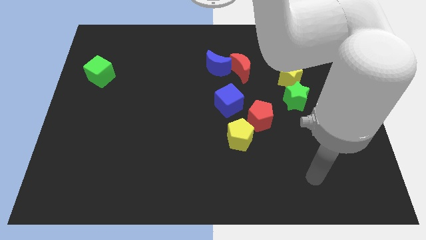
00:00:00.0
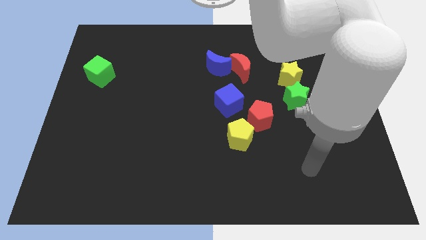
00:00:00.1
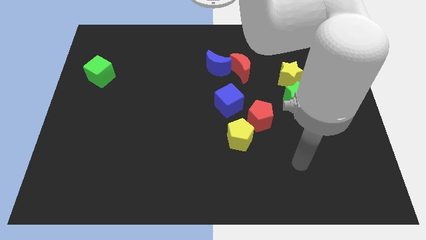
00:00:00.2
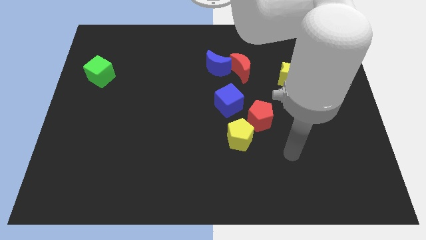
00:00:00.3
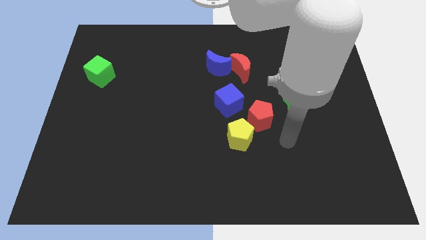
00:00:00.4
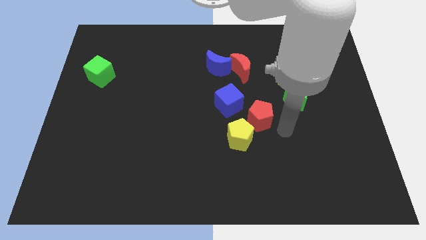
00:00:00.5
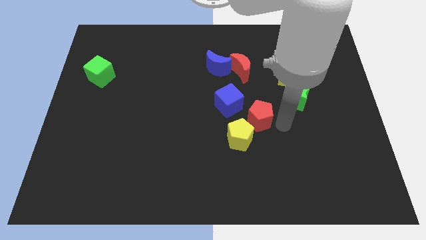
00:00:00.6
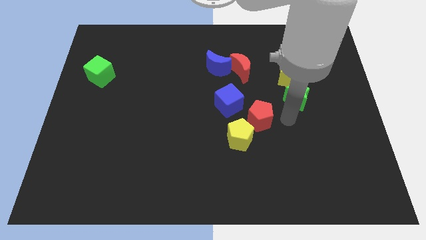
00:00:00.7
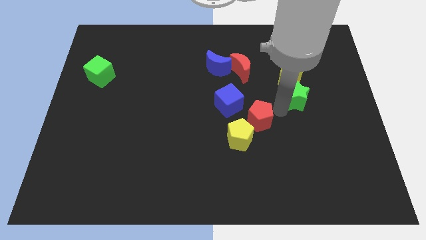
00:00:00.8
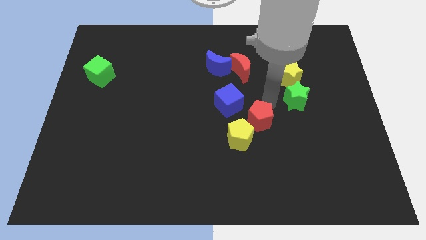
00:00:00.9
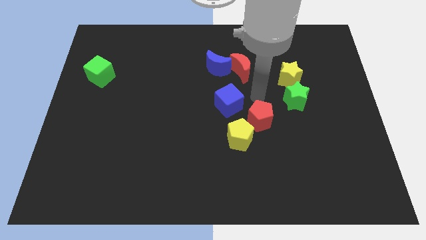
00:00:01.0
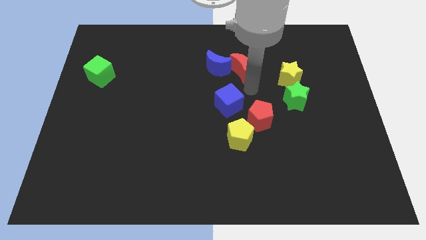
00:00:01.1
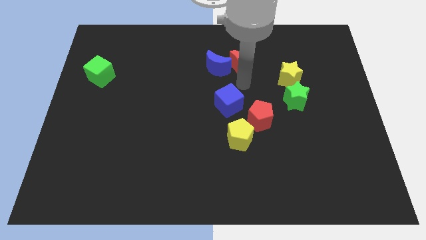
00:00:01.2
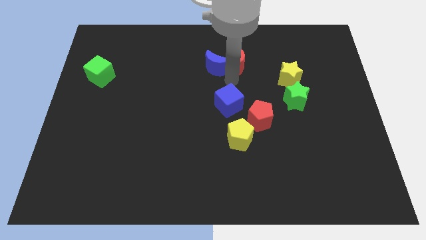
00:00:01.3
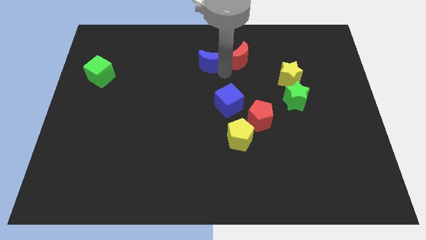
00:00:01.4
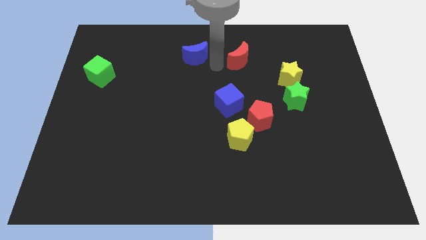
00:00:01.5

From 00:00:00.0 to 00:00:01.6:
pull the red moon apart from the blue moon

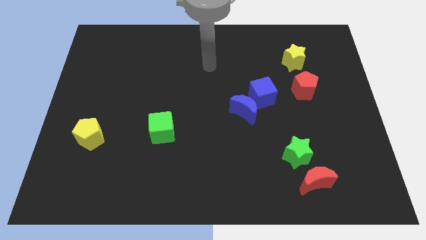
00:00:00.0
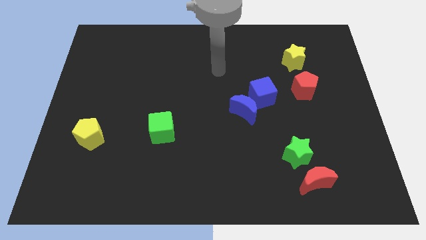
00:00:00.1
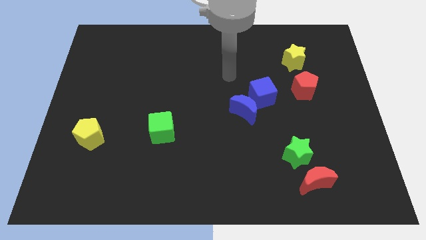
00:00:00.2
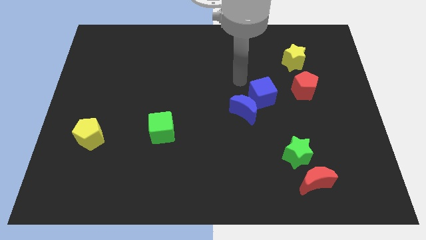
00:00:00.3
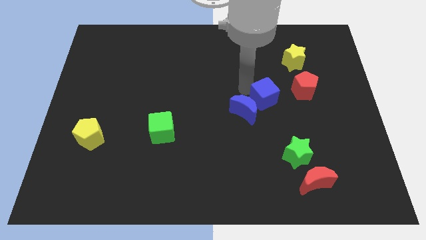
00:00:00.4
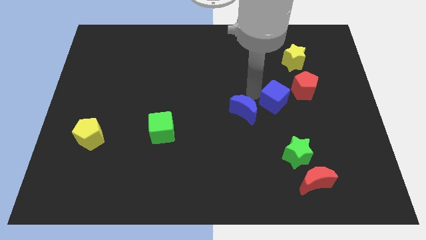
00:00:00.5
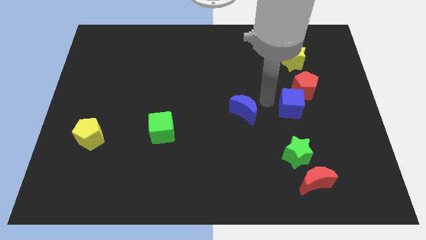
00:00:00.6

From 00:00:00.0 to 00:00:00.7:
move the blue moon away from the blue cube

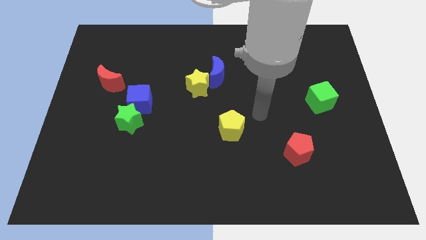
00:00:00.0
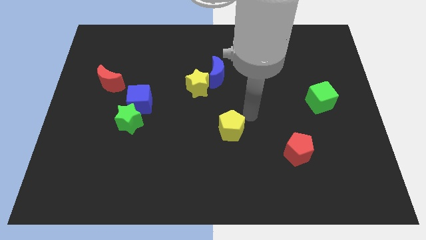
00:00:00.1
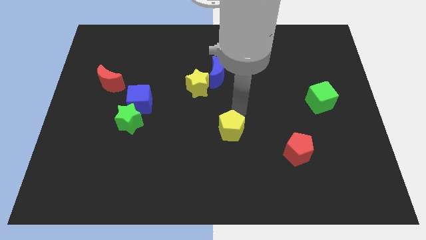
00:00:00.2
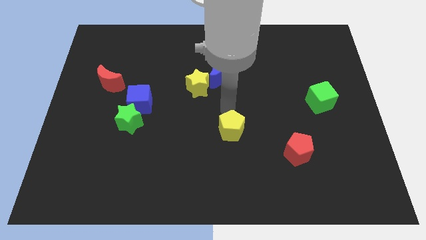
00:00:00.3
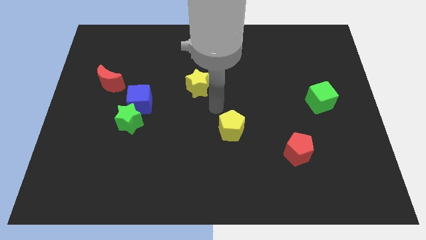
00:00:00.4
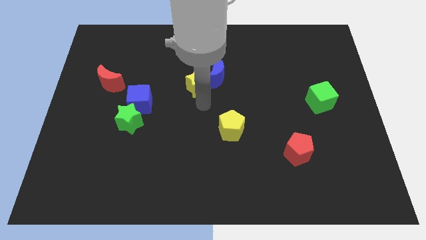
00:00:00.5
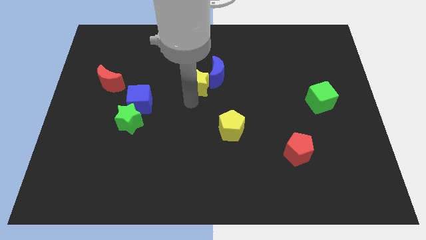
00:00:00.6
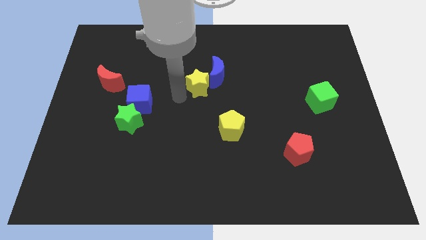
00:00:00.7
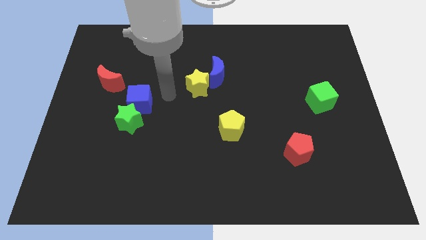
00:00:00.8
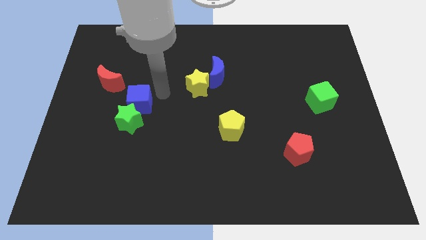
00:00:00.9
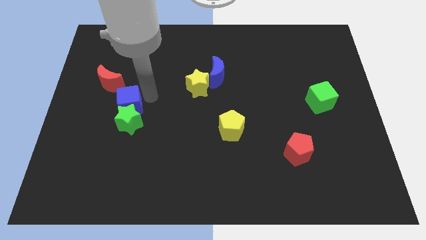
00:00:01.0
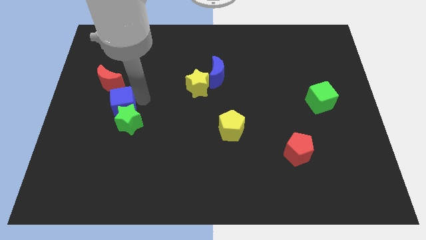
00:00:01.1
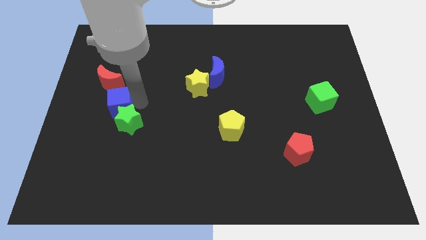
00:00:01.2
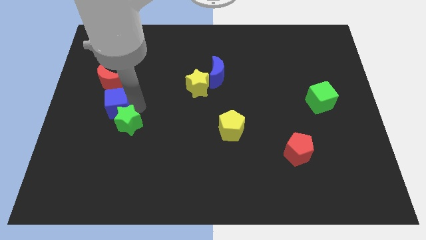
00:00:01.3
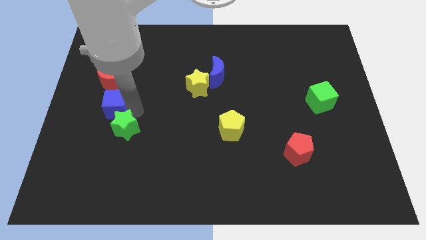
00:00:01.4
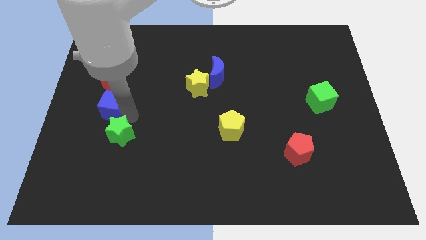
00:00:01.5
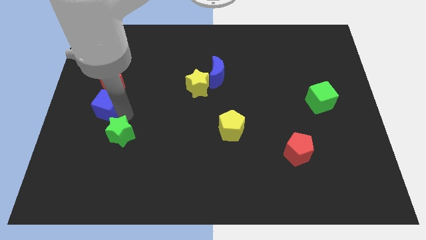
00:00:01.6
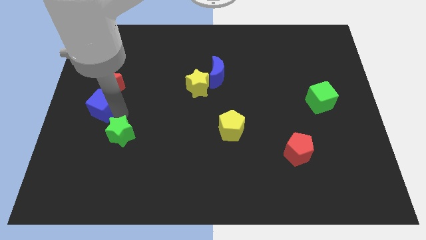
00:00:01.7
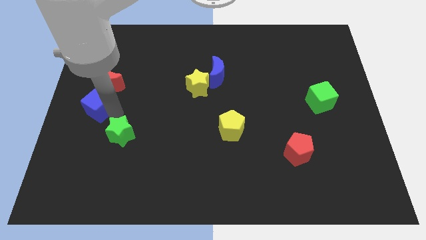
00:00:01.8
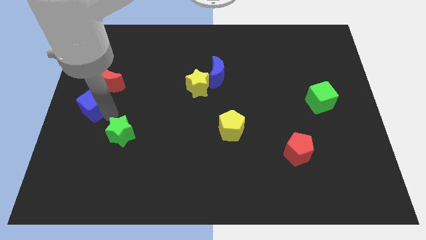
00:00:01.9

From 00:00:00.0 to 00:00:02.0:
separate the green star from the blue cube

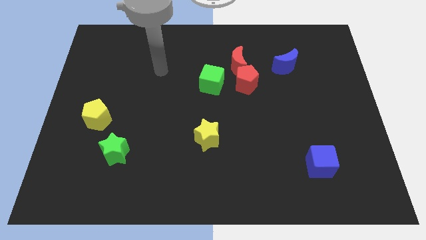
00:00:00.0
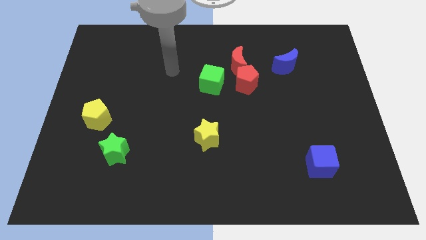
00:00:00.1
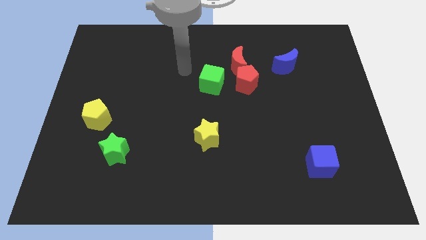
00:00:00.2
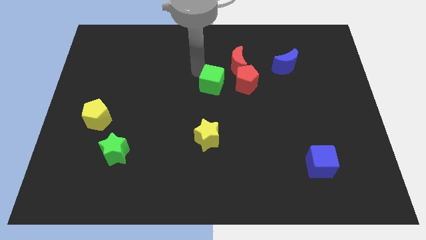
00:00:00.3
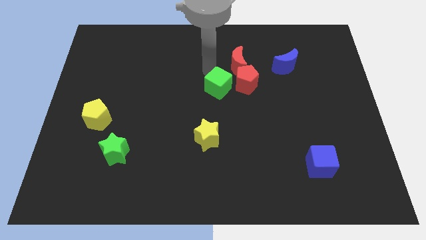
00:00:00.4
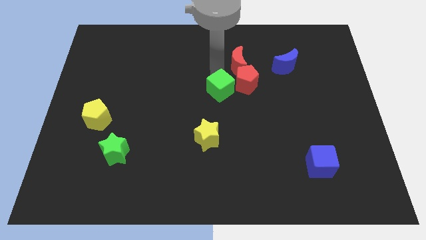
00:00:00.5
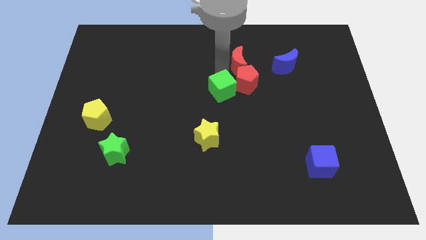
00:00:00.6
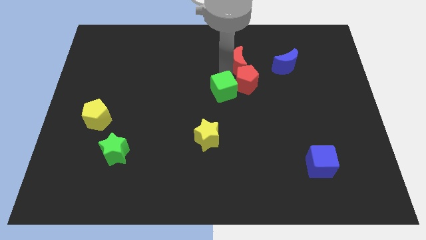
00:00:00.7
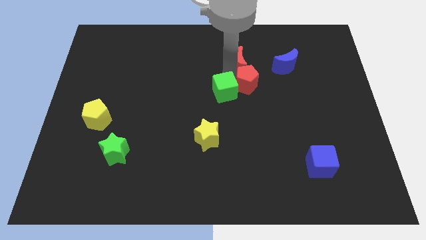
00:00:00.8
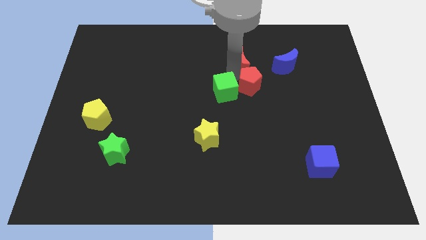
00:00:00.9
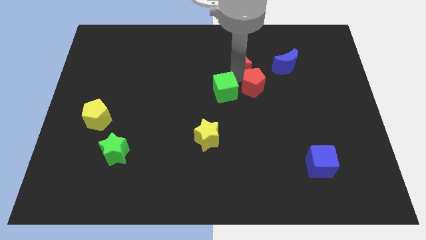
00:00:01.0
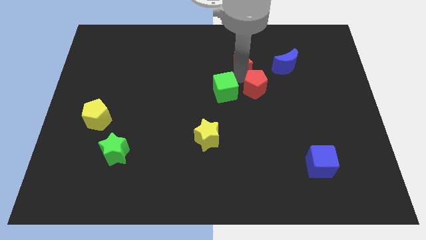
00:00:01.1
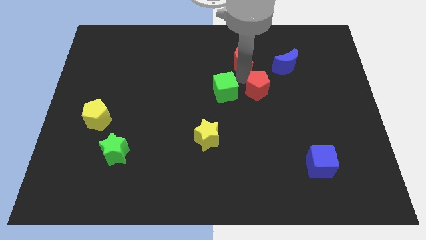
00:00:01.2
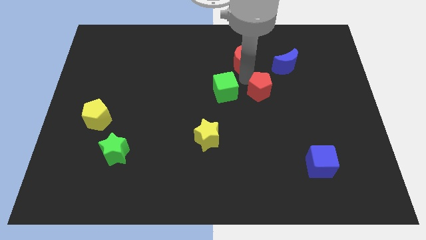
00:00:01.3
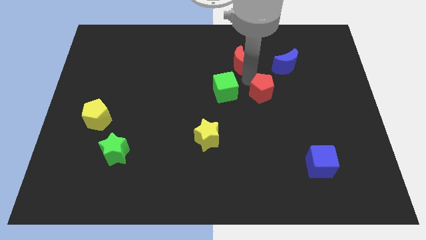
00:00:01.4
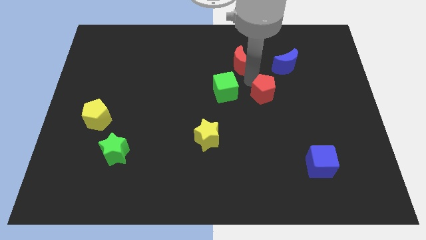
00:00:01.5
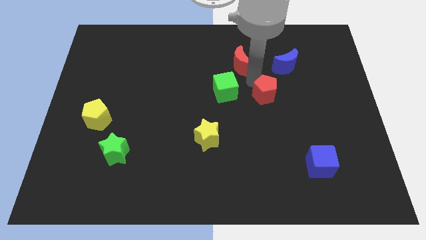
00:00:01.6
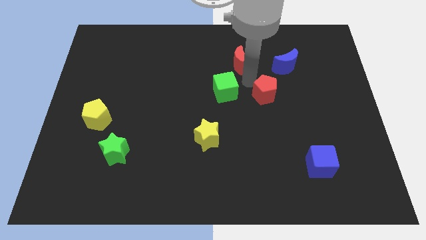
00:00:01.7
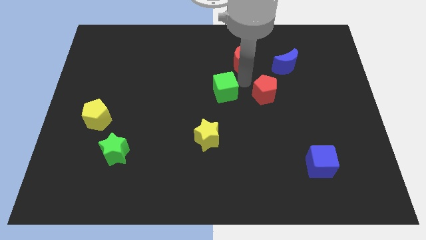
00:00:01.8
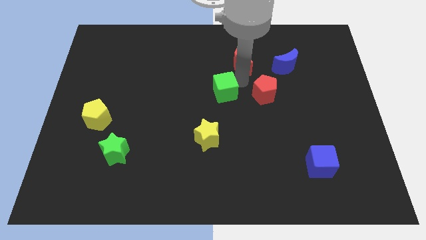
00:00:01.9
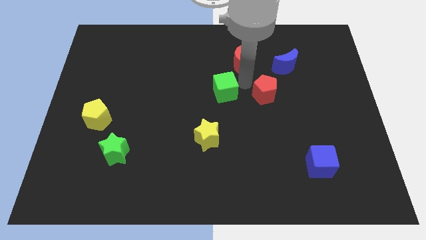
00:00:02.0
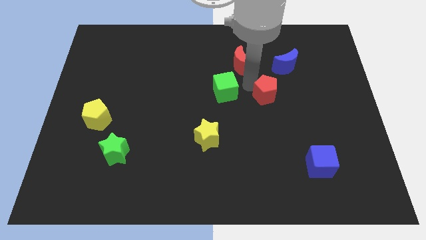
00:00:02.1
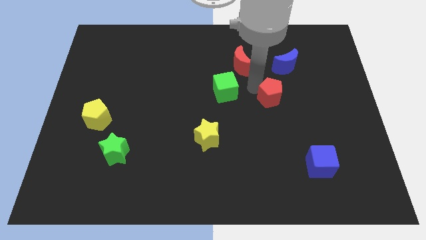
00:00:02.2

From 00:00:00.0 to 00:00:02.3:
move the red pentagon away from the red moon and green cube

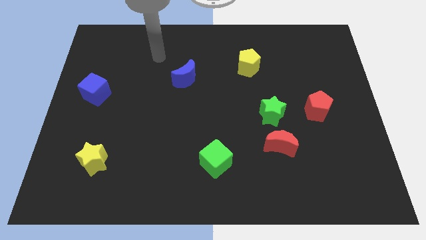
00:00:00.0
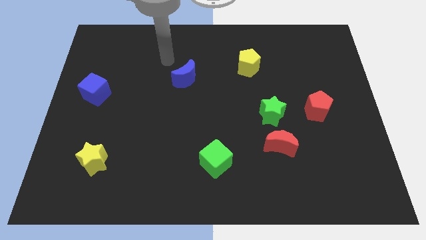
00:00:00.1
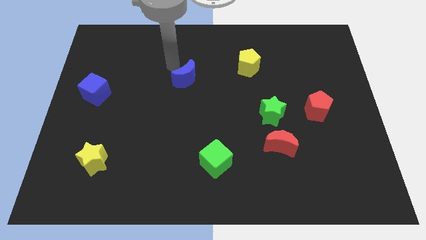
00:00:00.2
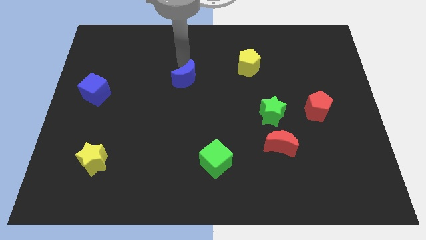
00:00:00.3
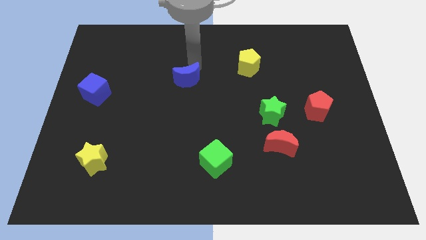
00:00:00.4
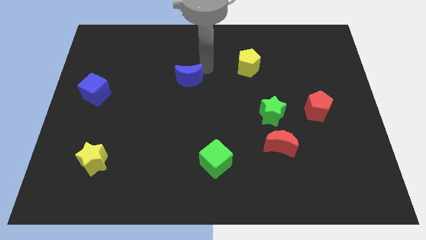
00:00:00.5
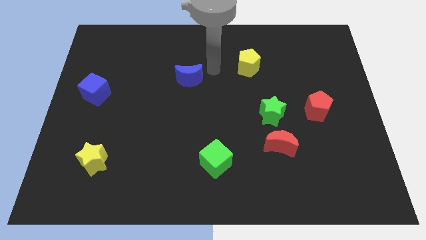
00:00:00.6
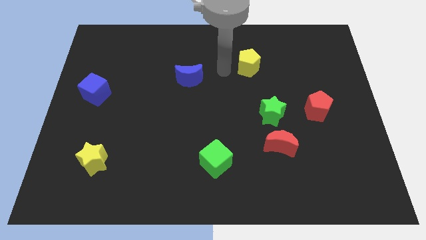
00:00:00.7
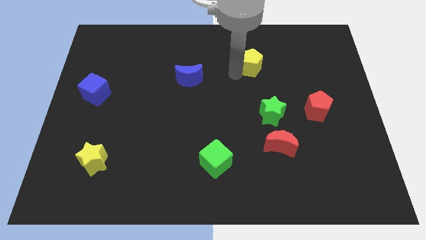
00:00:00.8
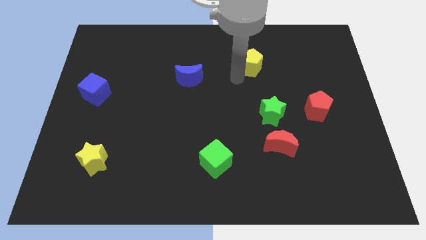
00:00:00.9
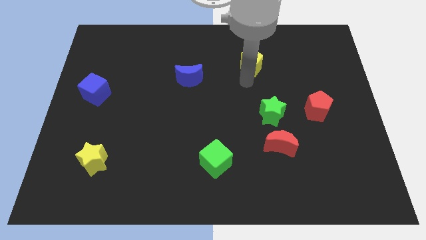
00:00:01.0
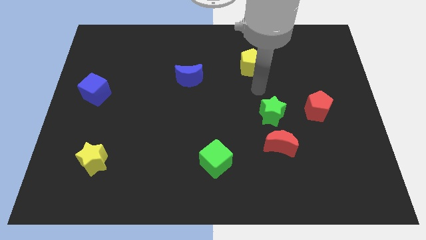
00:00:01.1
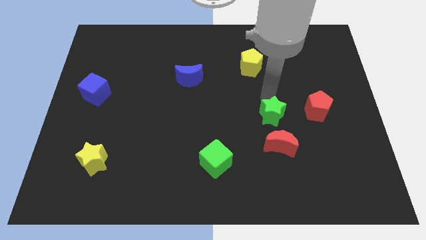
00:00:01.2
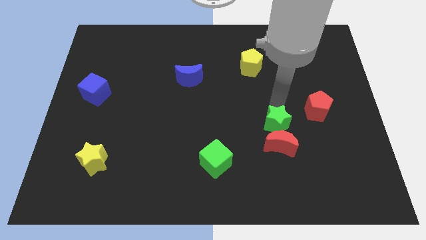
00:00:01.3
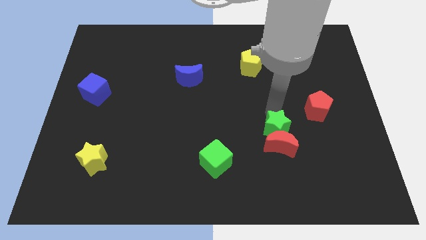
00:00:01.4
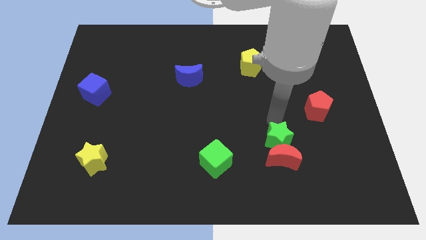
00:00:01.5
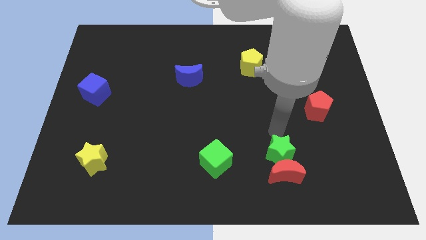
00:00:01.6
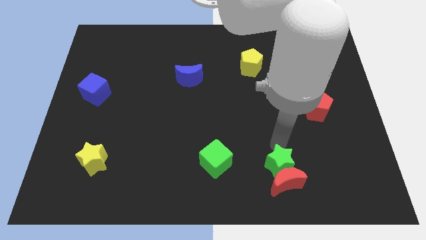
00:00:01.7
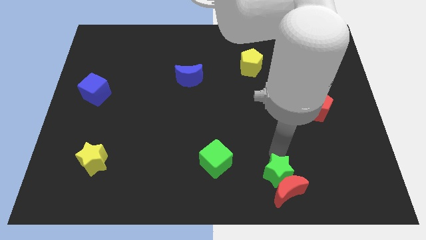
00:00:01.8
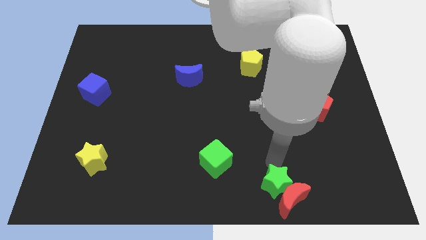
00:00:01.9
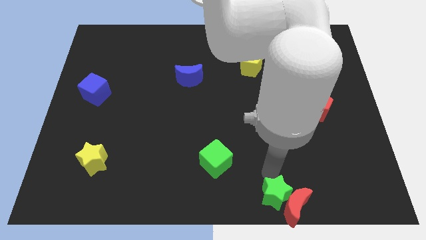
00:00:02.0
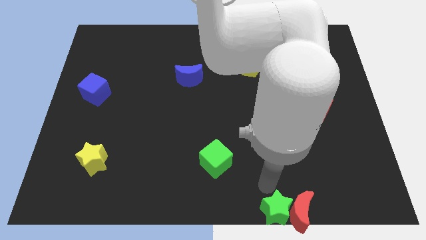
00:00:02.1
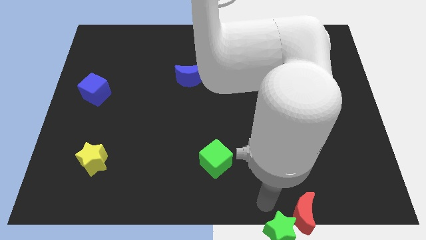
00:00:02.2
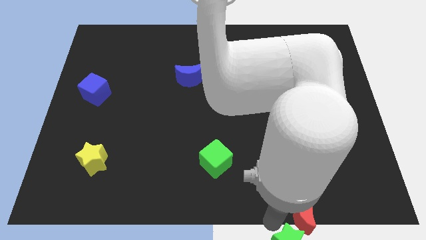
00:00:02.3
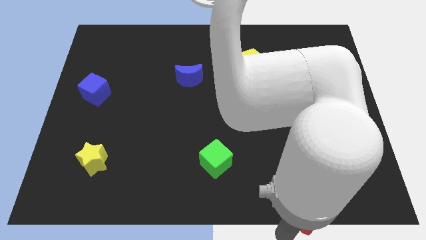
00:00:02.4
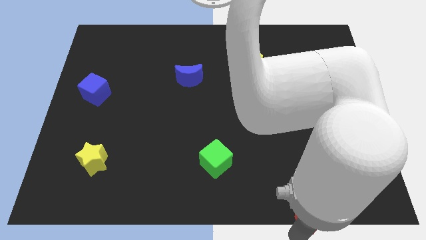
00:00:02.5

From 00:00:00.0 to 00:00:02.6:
pull the red moon apart from the green star

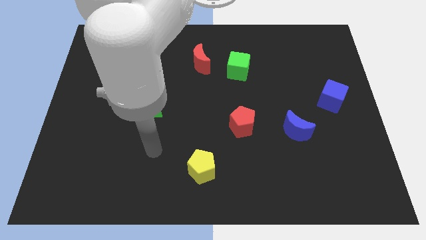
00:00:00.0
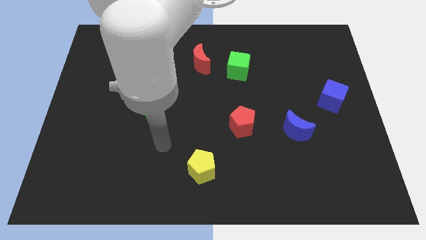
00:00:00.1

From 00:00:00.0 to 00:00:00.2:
pull the red moon apart from the green cube
